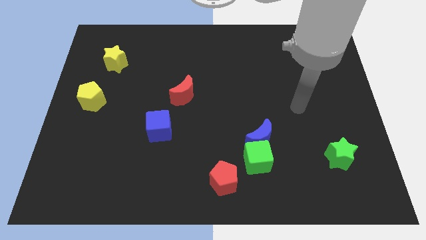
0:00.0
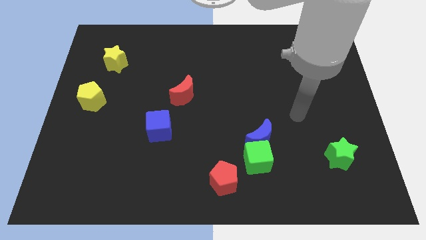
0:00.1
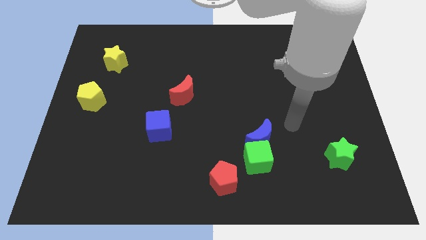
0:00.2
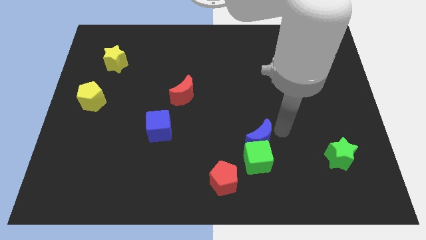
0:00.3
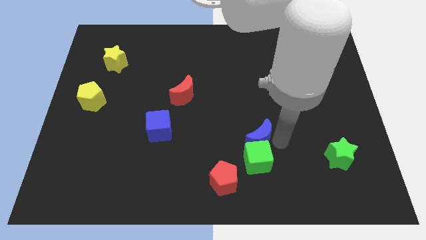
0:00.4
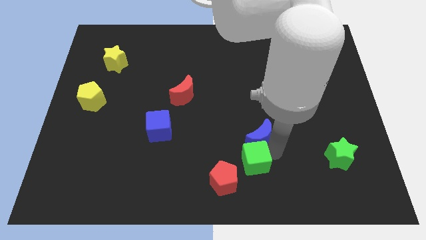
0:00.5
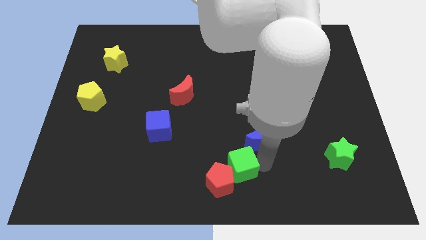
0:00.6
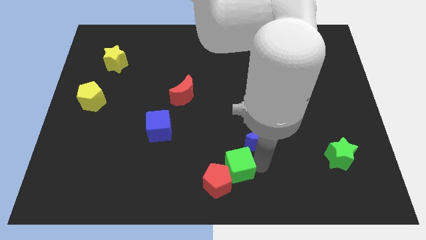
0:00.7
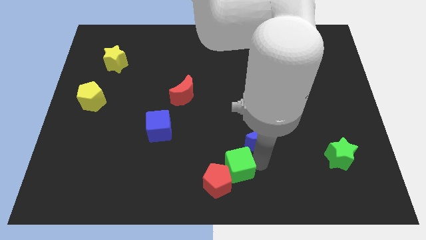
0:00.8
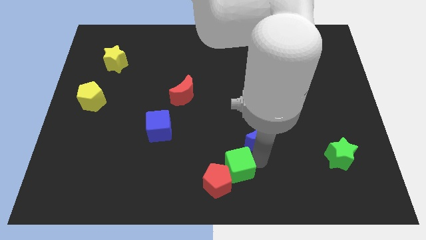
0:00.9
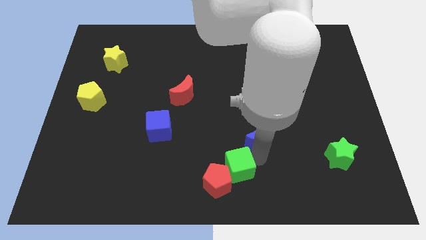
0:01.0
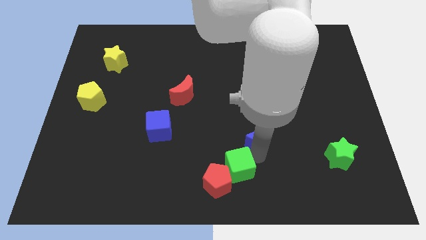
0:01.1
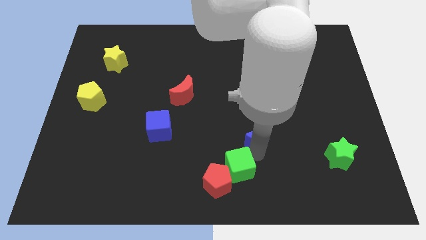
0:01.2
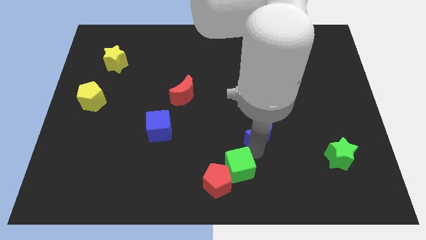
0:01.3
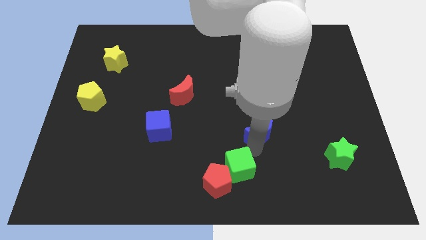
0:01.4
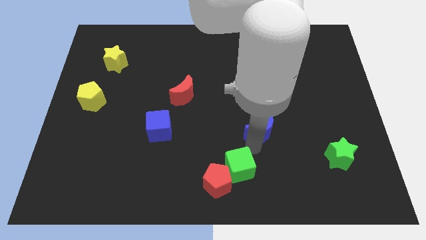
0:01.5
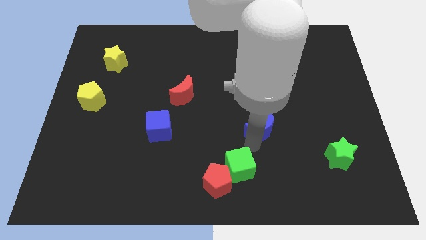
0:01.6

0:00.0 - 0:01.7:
pull the blue moon apart from the green cube

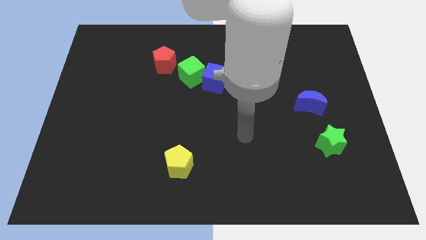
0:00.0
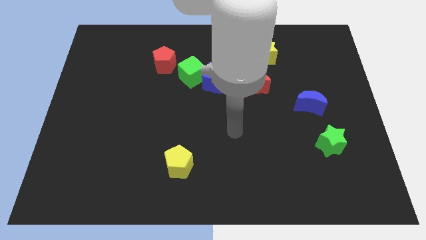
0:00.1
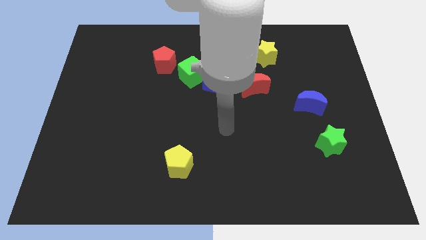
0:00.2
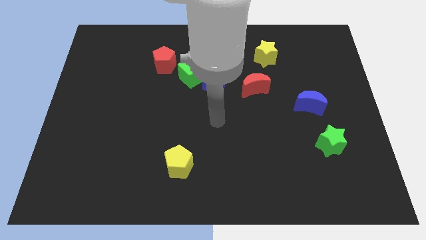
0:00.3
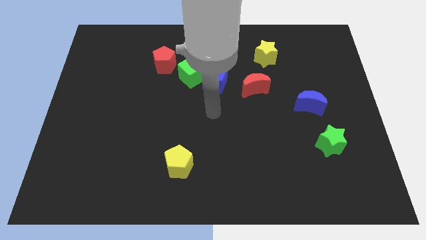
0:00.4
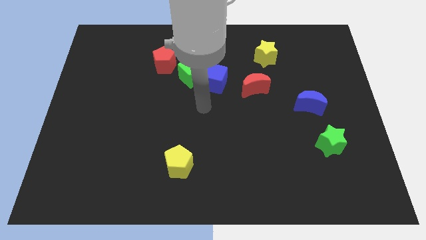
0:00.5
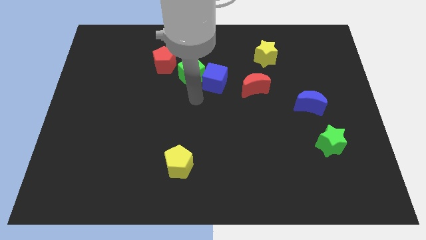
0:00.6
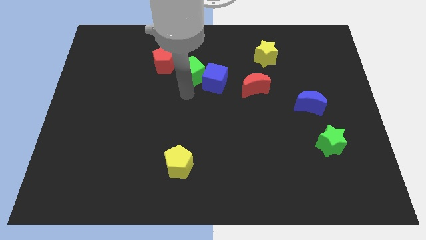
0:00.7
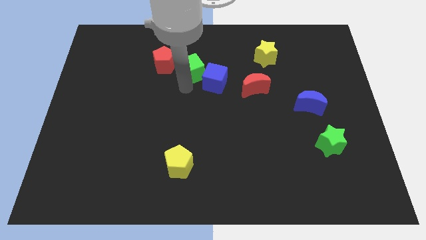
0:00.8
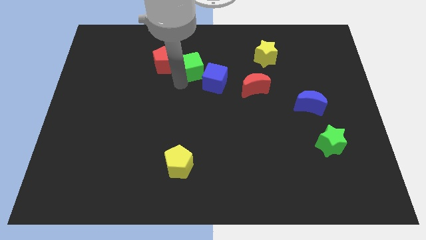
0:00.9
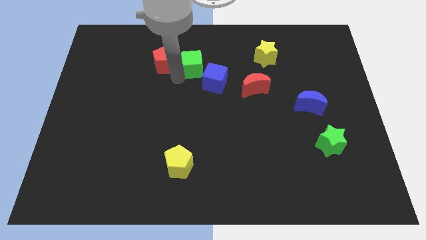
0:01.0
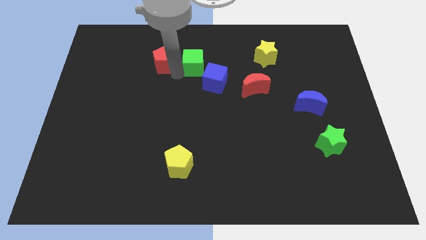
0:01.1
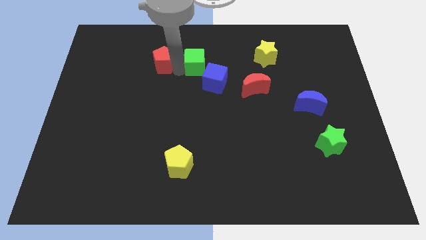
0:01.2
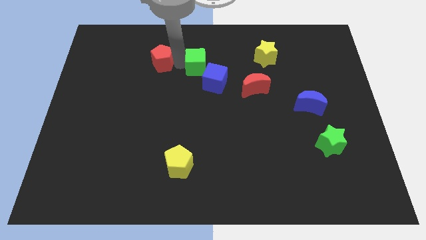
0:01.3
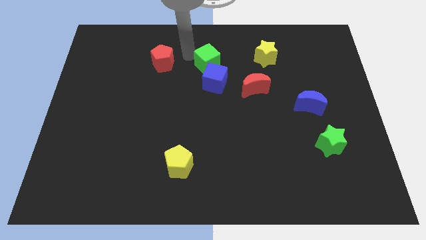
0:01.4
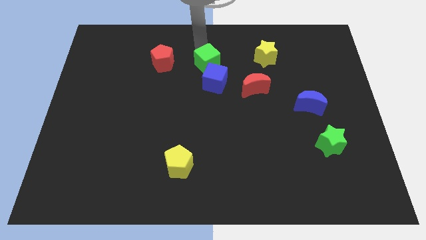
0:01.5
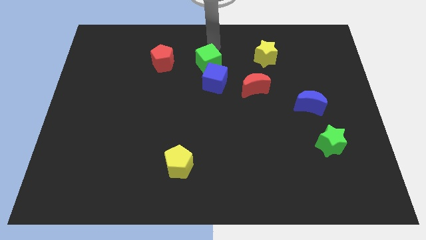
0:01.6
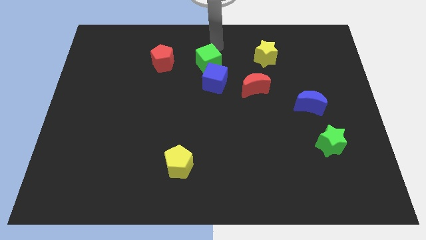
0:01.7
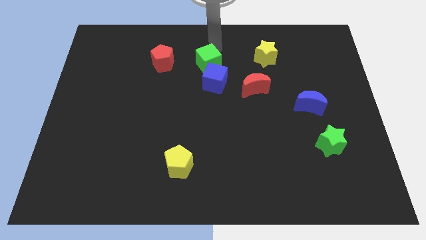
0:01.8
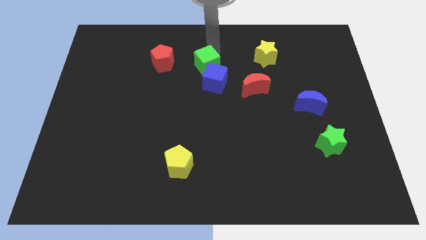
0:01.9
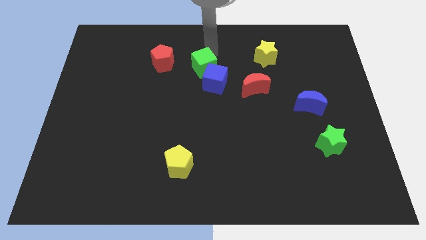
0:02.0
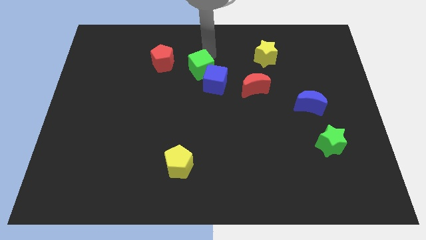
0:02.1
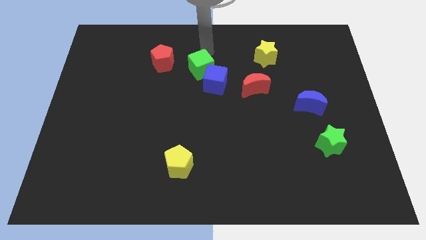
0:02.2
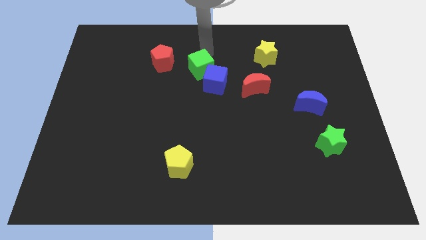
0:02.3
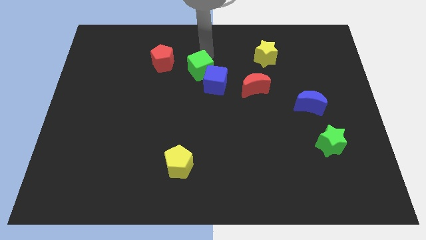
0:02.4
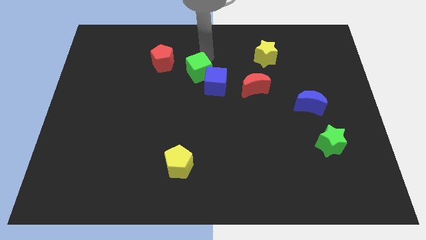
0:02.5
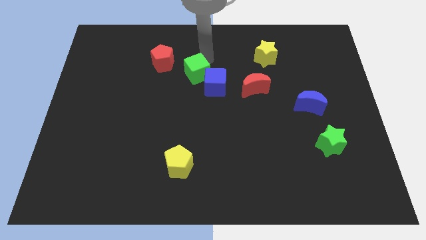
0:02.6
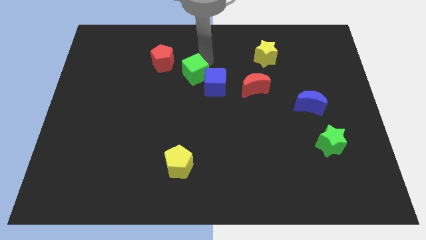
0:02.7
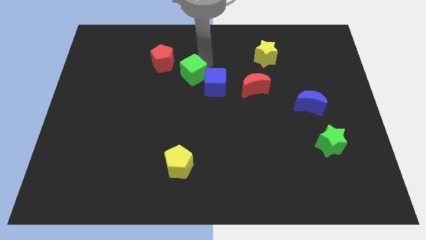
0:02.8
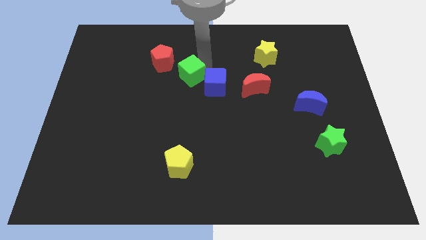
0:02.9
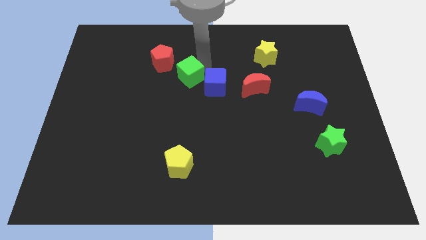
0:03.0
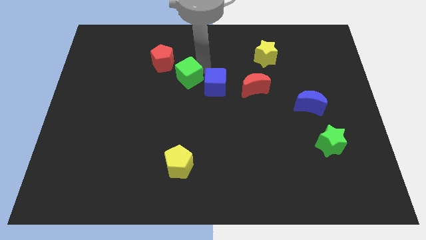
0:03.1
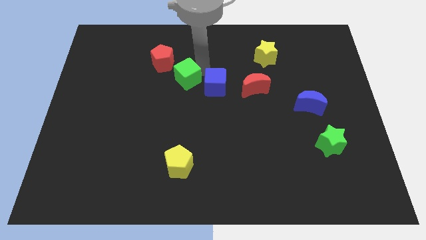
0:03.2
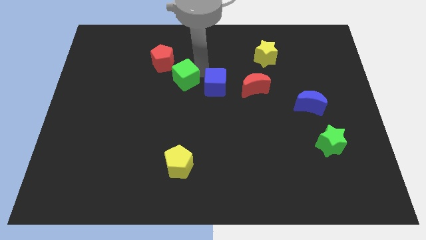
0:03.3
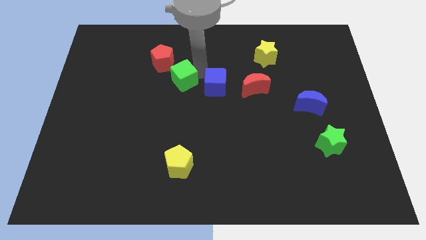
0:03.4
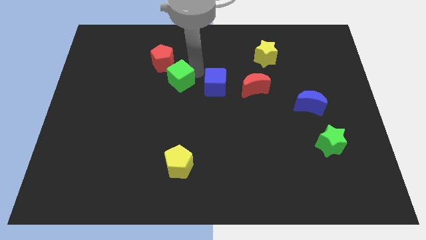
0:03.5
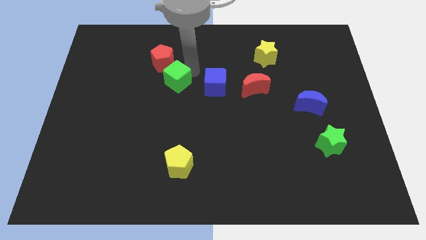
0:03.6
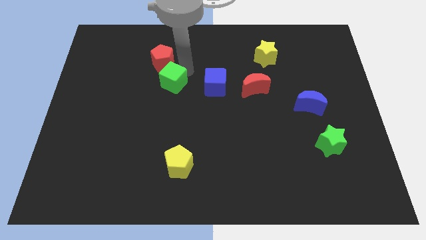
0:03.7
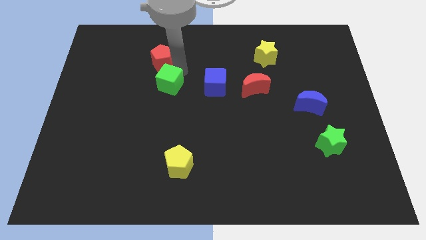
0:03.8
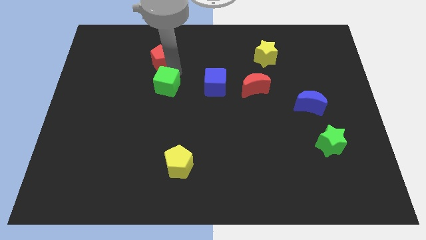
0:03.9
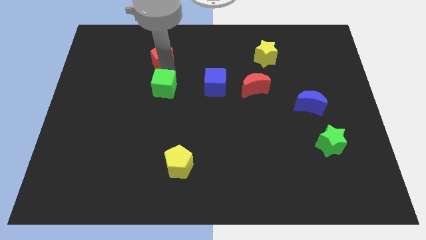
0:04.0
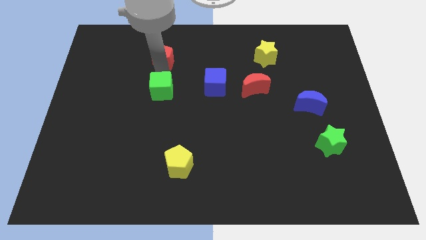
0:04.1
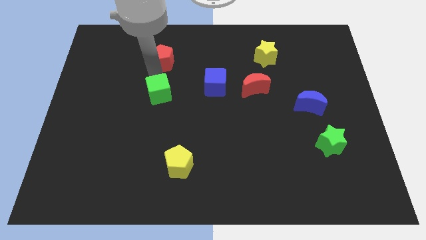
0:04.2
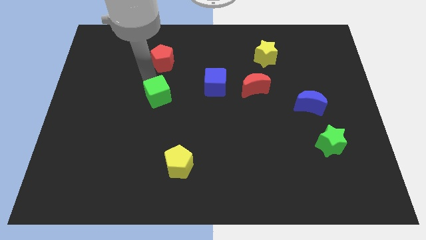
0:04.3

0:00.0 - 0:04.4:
pull the green cube apart from the blue cube and red pentagon

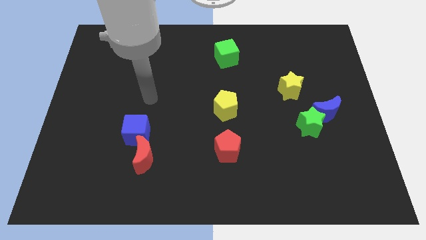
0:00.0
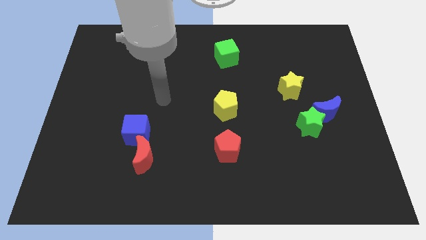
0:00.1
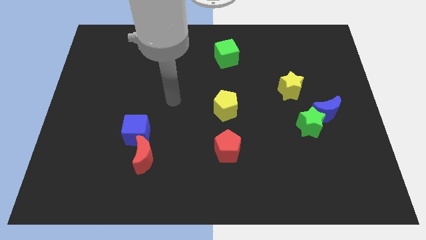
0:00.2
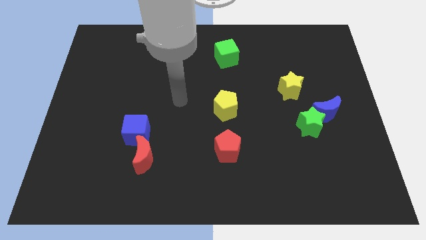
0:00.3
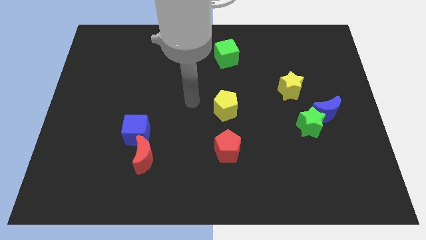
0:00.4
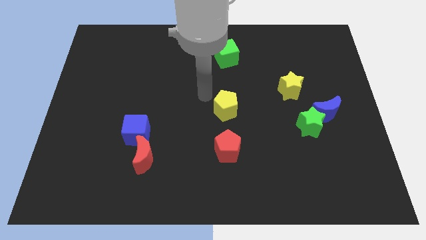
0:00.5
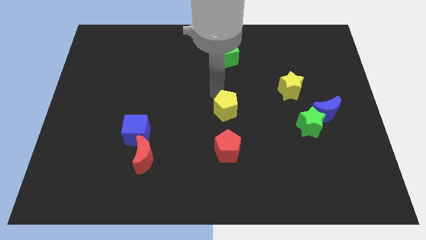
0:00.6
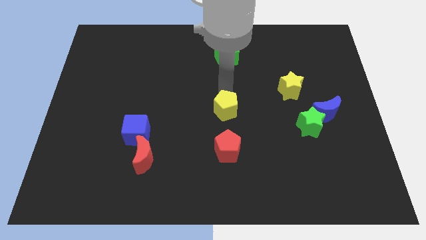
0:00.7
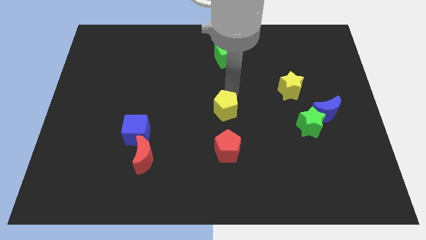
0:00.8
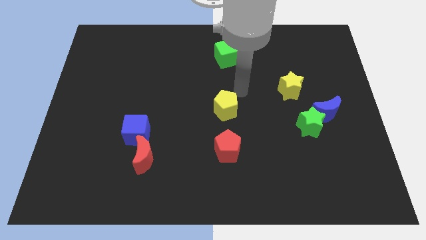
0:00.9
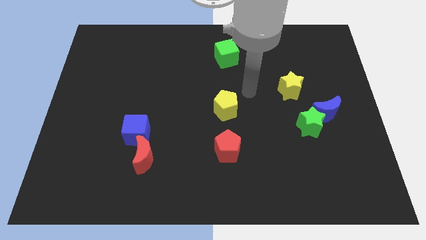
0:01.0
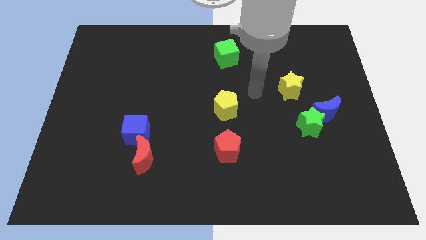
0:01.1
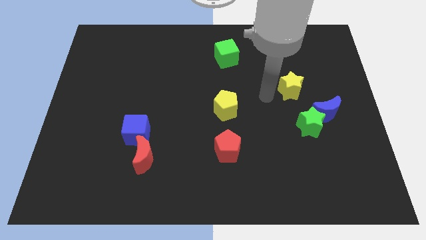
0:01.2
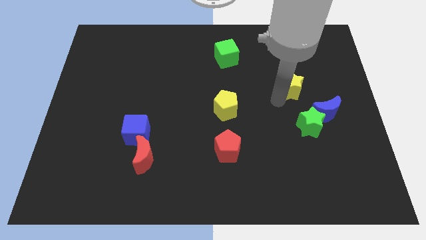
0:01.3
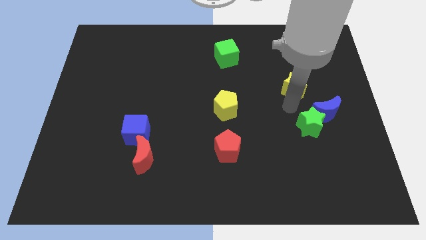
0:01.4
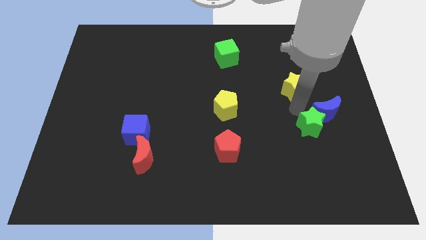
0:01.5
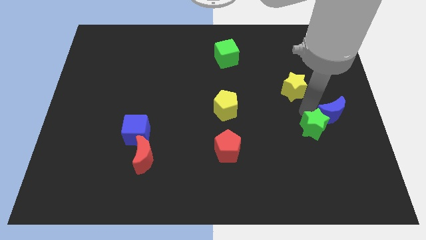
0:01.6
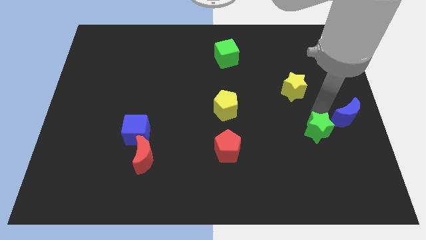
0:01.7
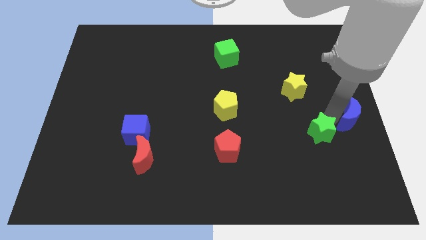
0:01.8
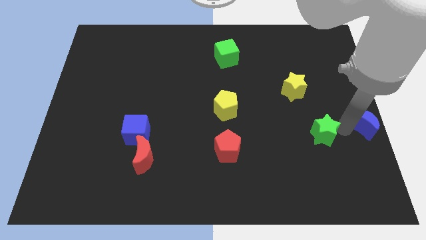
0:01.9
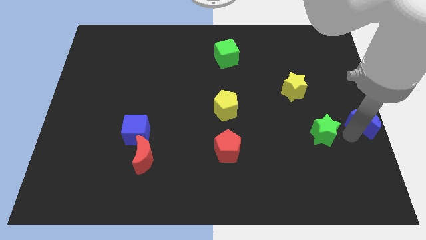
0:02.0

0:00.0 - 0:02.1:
separate the green star from the blue moon

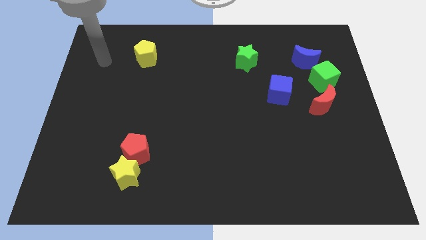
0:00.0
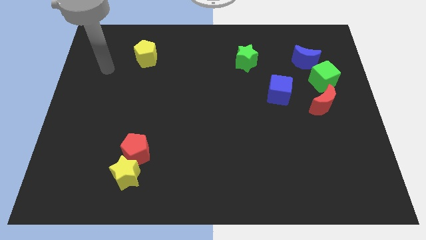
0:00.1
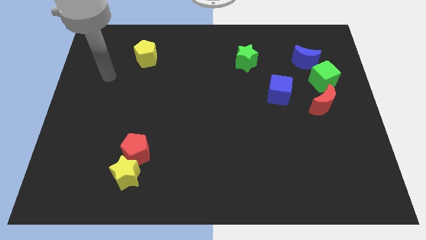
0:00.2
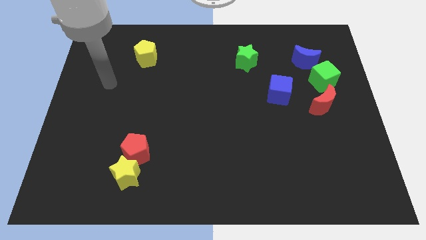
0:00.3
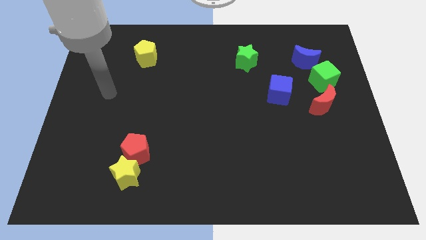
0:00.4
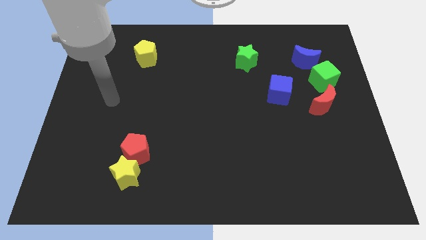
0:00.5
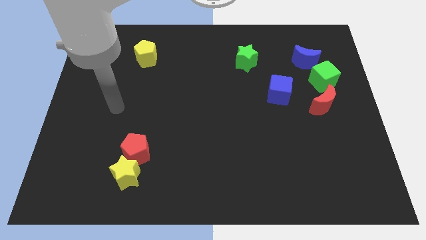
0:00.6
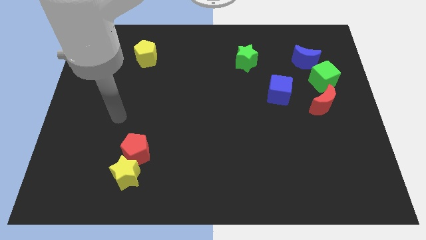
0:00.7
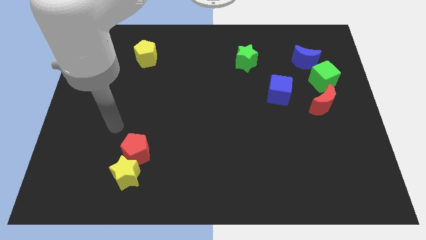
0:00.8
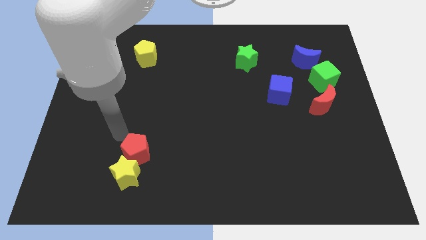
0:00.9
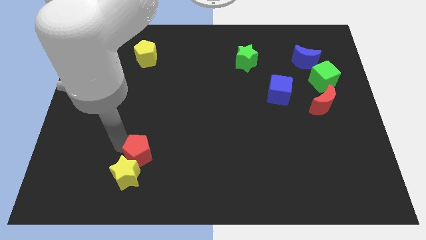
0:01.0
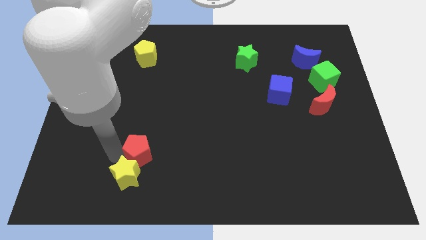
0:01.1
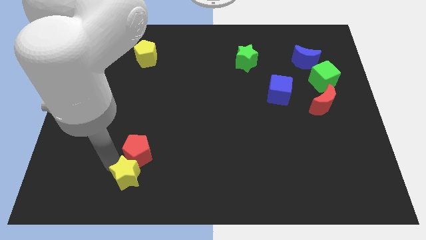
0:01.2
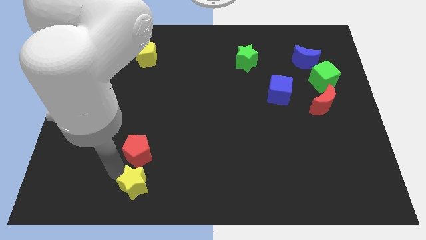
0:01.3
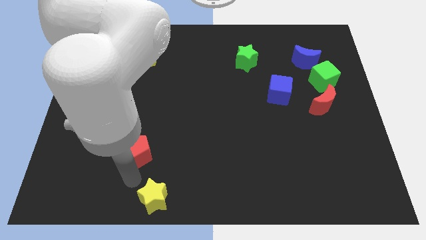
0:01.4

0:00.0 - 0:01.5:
pull the red pentagon apart from the yellow star
